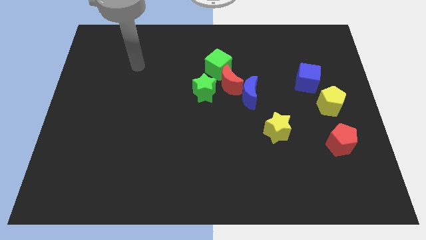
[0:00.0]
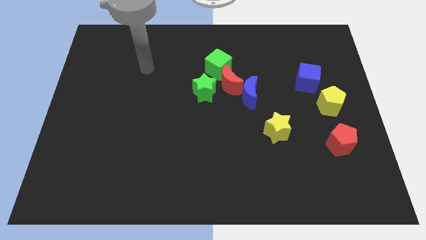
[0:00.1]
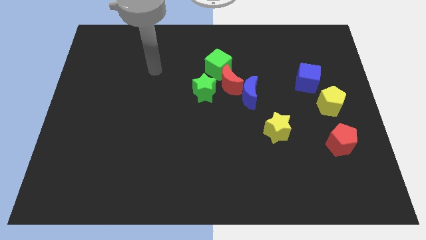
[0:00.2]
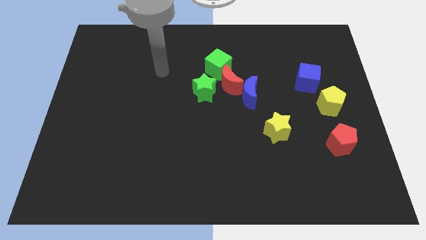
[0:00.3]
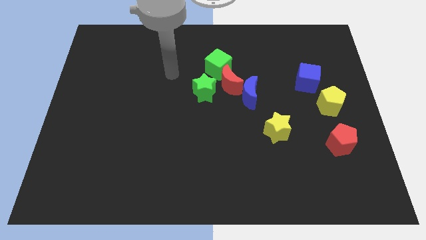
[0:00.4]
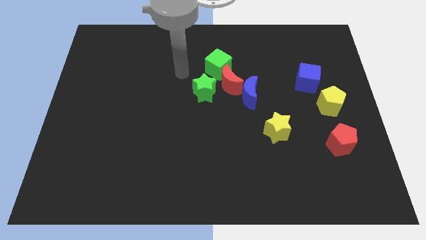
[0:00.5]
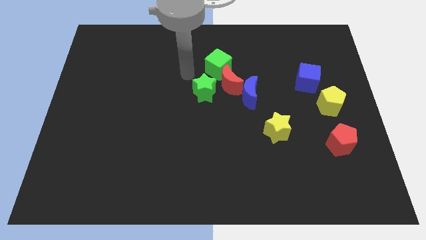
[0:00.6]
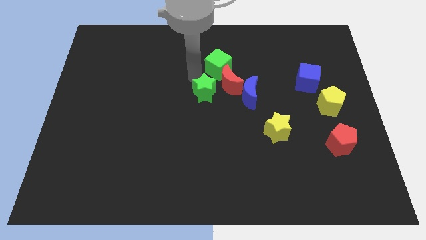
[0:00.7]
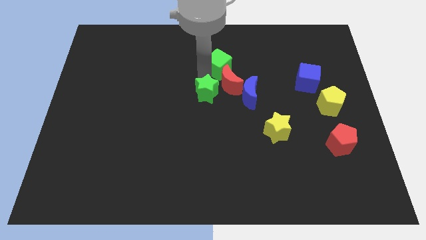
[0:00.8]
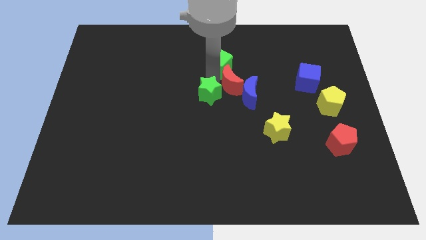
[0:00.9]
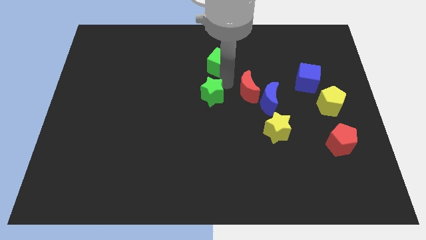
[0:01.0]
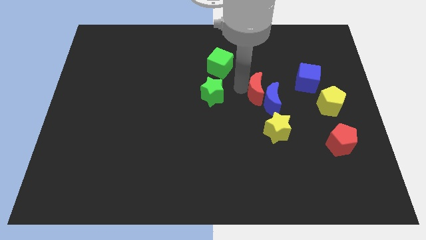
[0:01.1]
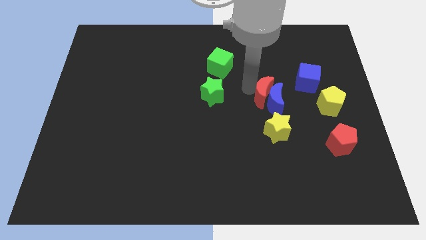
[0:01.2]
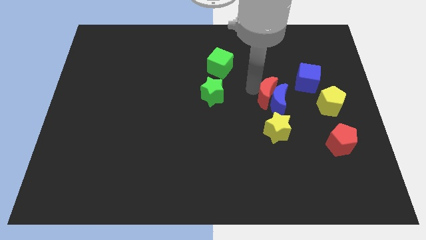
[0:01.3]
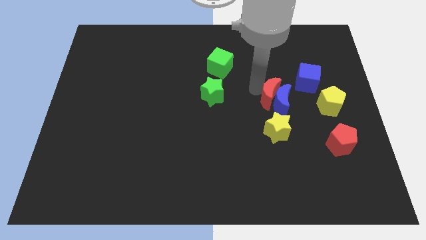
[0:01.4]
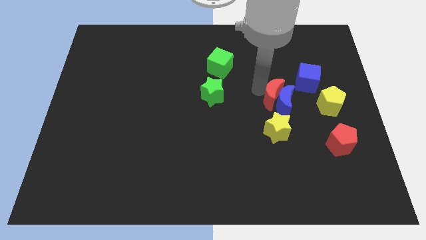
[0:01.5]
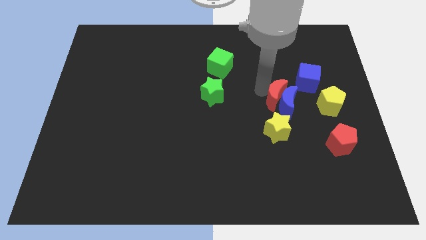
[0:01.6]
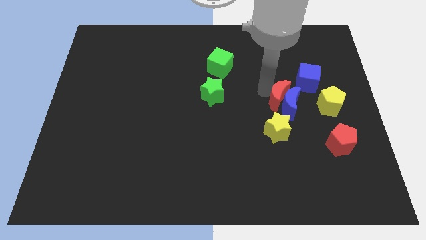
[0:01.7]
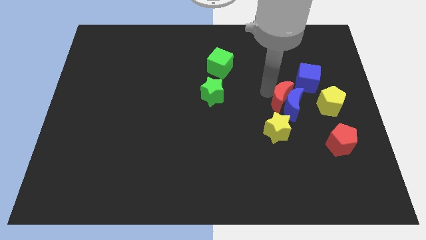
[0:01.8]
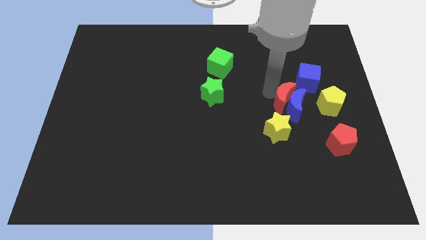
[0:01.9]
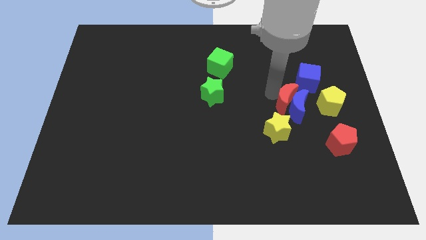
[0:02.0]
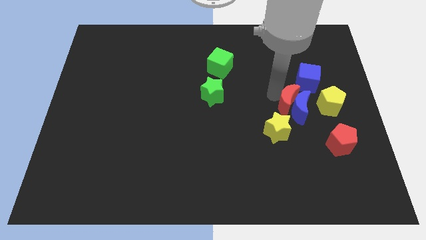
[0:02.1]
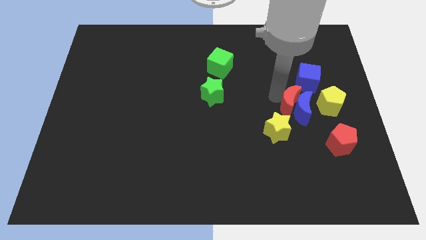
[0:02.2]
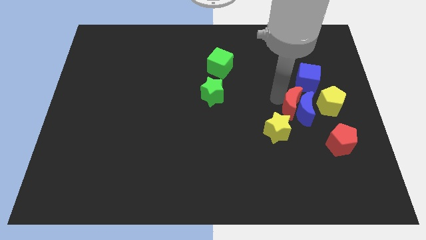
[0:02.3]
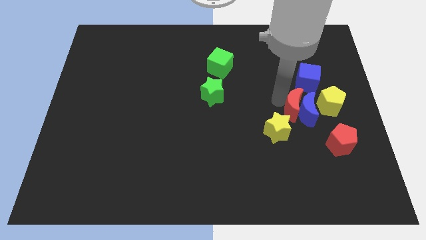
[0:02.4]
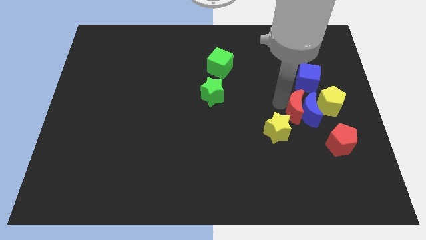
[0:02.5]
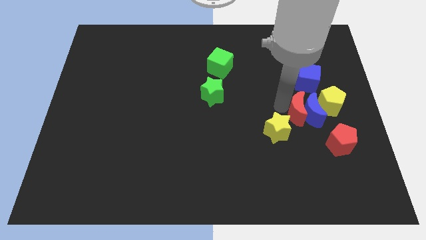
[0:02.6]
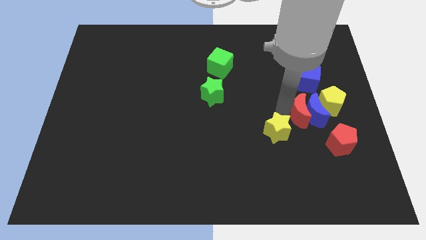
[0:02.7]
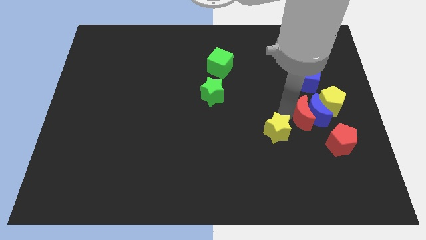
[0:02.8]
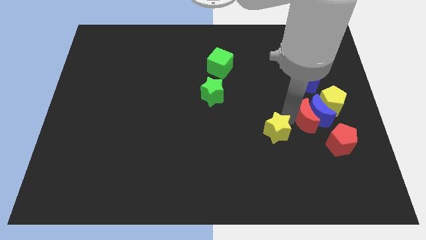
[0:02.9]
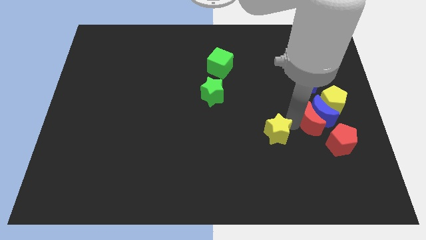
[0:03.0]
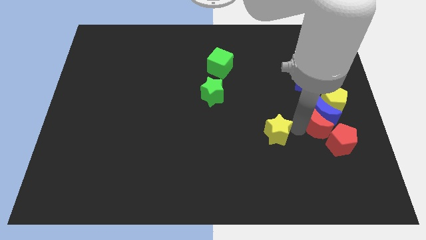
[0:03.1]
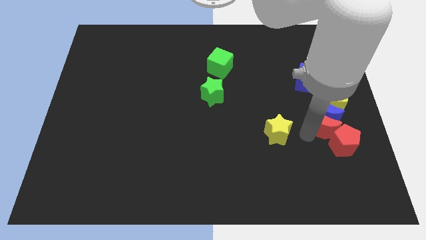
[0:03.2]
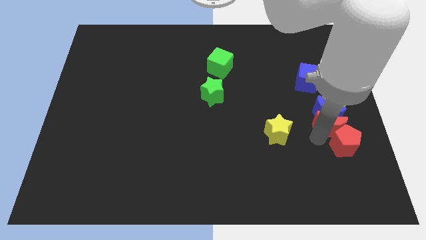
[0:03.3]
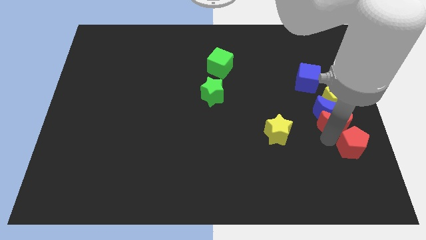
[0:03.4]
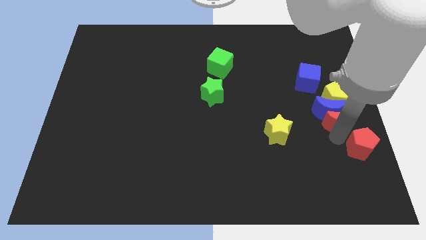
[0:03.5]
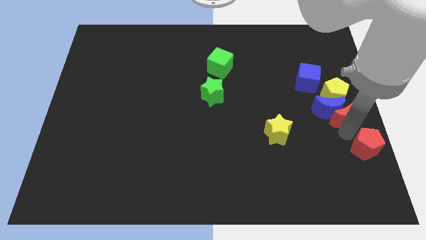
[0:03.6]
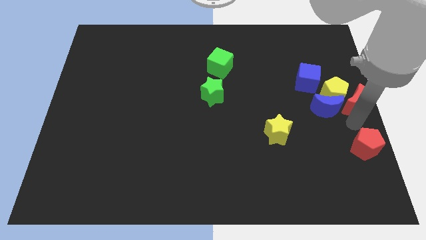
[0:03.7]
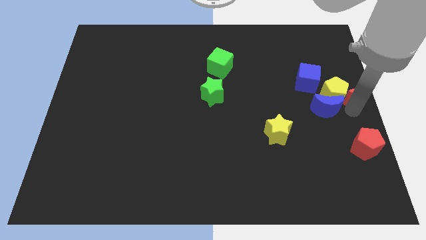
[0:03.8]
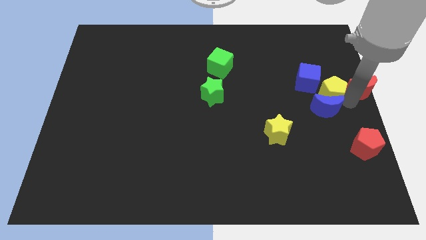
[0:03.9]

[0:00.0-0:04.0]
pull the blue moon apart from the red moon

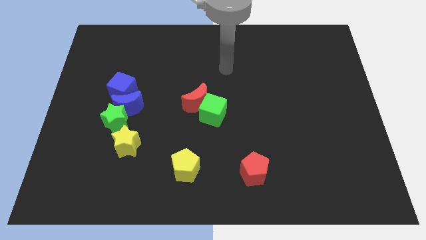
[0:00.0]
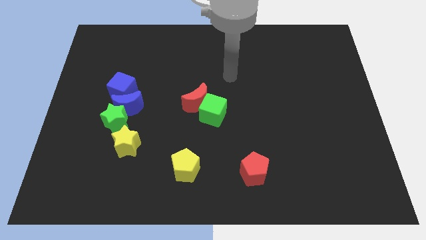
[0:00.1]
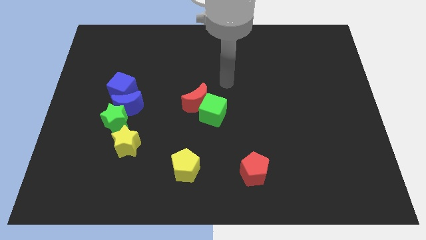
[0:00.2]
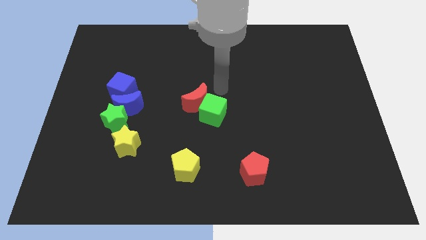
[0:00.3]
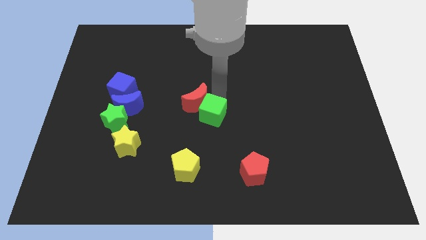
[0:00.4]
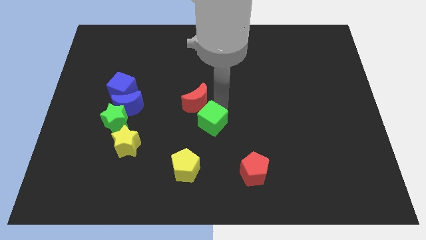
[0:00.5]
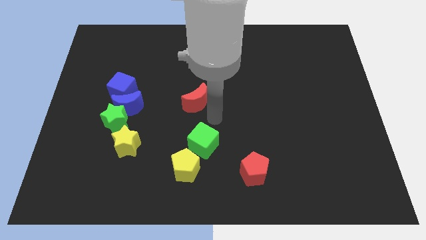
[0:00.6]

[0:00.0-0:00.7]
pull the red moon apart from the green cube

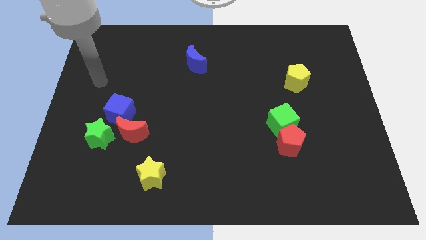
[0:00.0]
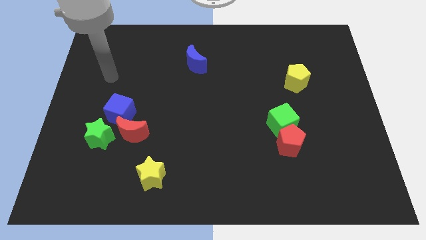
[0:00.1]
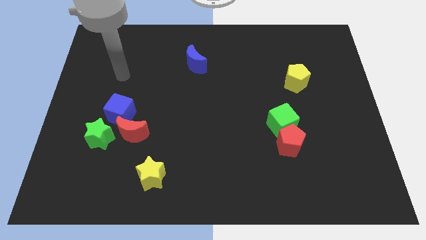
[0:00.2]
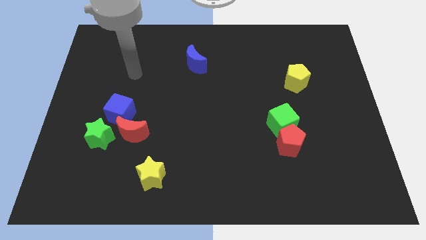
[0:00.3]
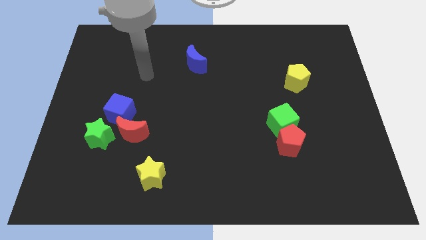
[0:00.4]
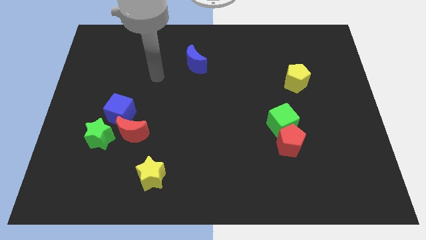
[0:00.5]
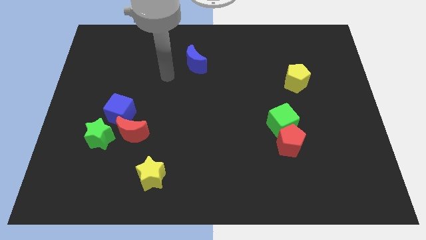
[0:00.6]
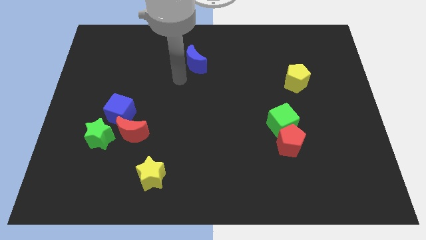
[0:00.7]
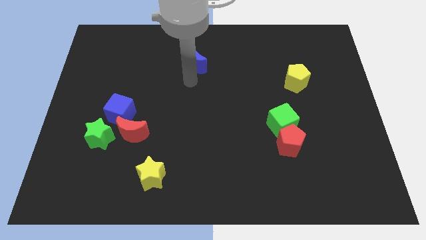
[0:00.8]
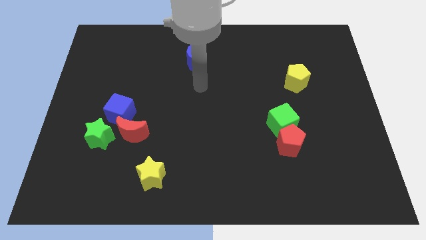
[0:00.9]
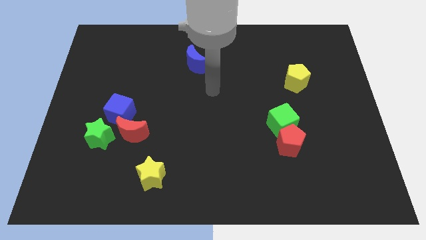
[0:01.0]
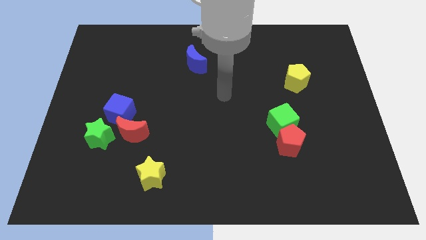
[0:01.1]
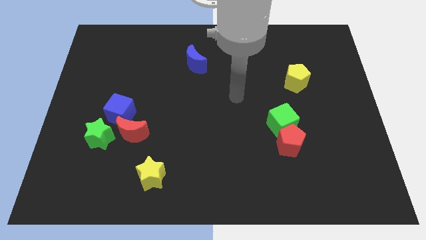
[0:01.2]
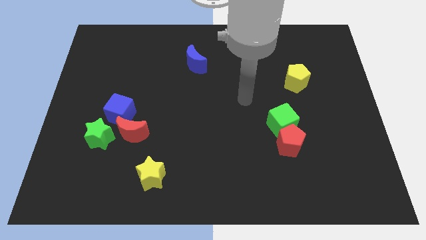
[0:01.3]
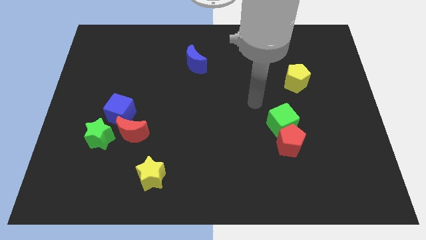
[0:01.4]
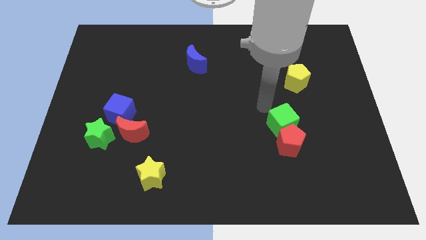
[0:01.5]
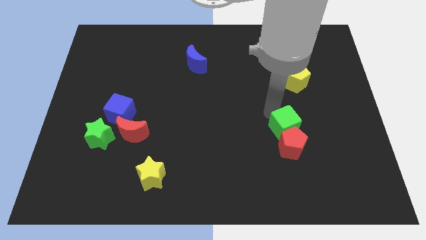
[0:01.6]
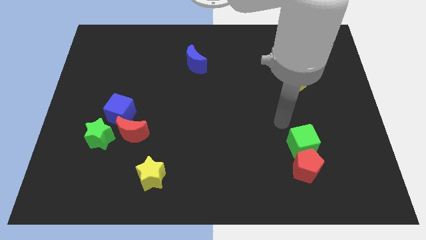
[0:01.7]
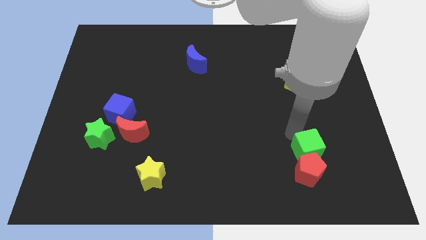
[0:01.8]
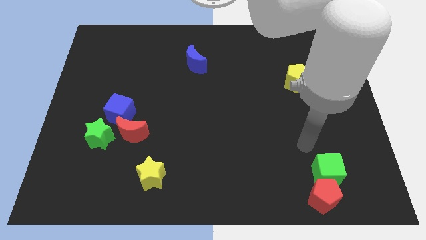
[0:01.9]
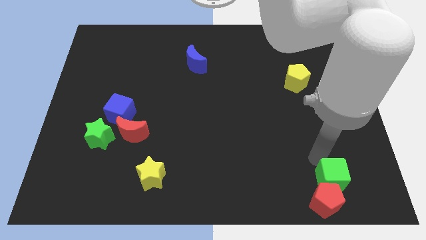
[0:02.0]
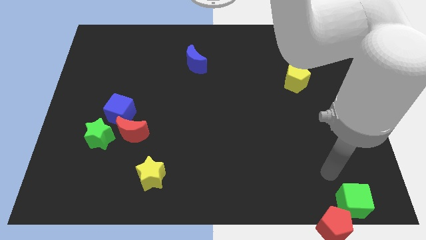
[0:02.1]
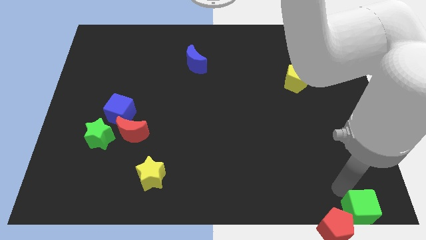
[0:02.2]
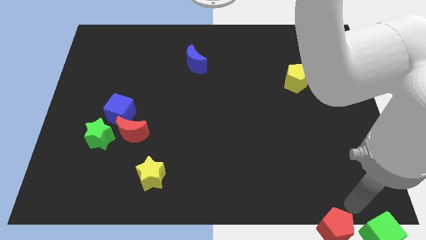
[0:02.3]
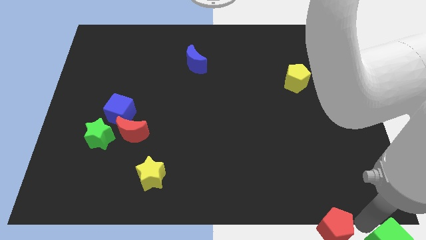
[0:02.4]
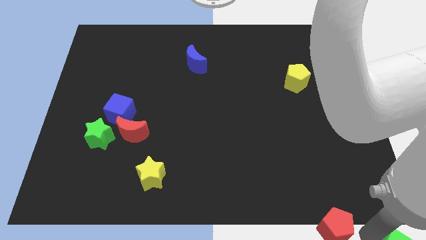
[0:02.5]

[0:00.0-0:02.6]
pull the red pentagon apart from the green cube

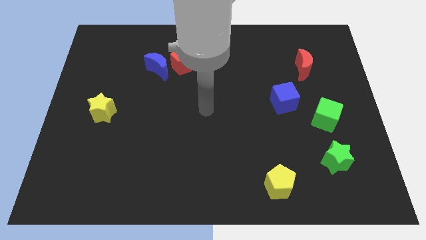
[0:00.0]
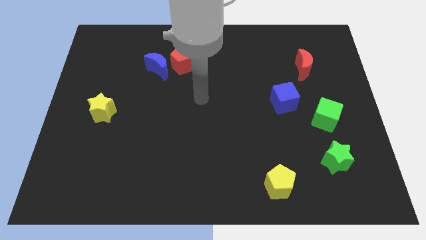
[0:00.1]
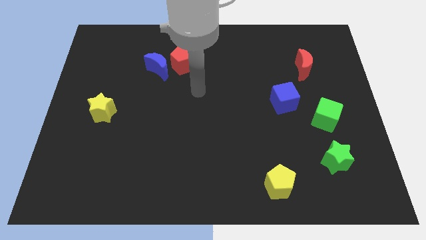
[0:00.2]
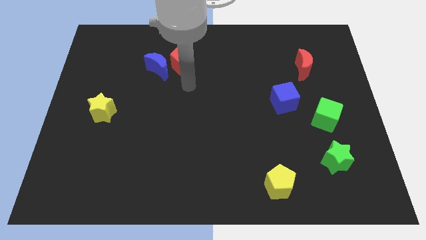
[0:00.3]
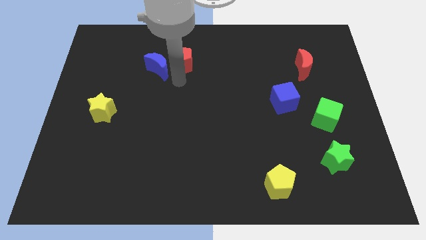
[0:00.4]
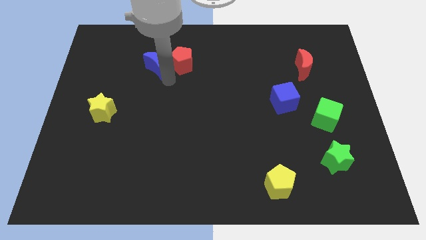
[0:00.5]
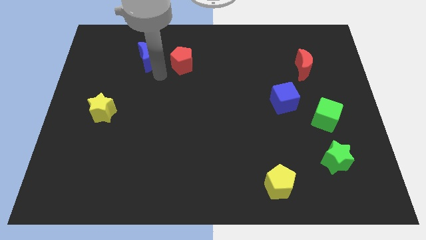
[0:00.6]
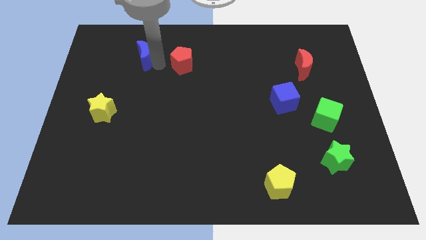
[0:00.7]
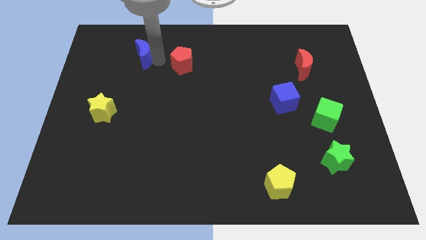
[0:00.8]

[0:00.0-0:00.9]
move the red pentagon away from the blue moon

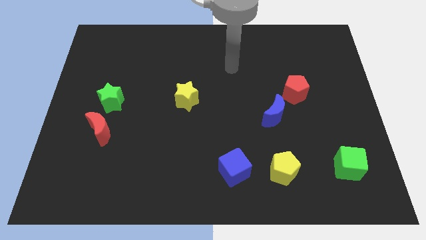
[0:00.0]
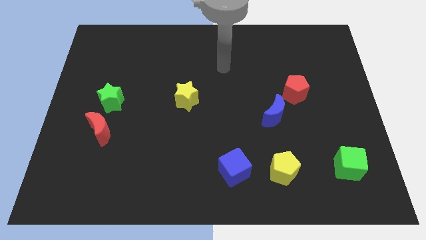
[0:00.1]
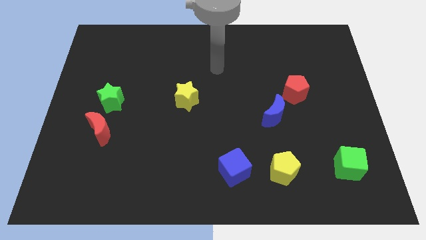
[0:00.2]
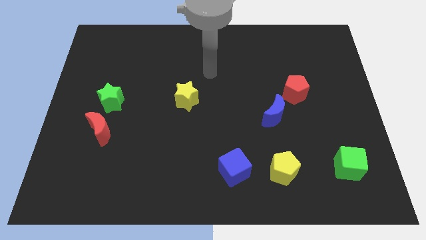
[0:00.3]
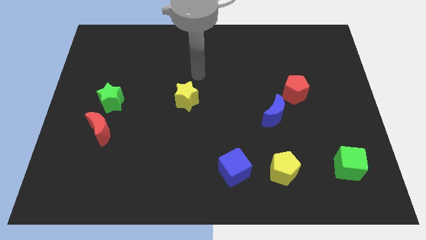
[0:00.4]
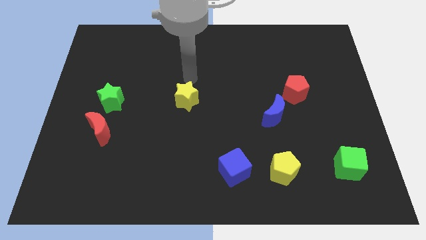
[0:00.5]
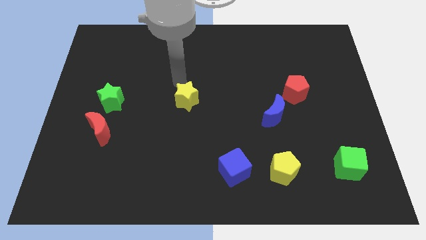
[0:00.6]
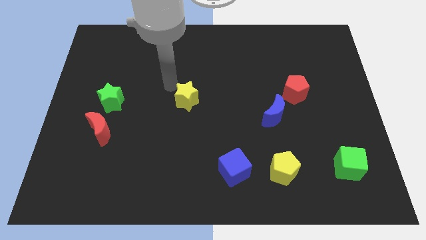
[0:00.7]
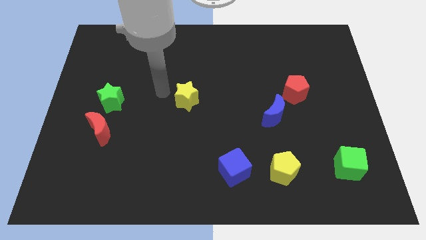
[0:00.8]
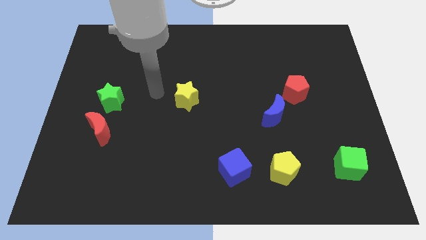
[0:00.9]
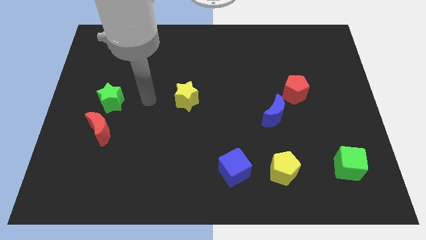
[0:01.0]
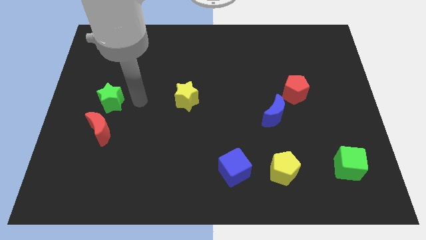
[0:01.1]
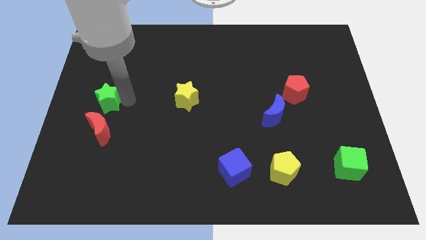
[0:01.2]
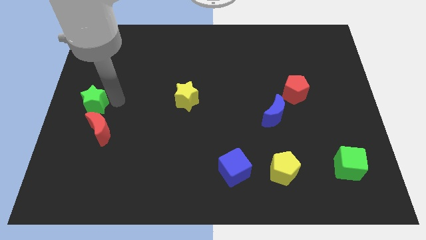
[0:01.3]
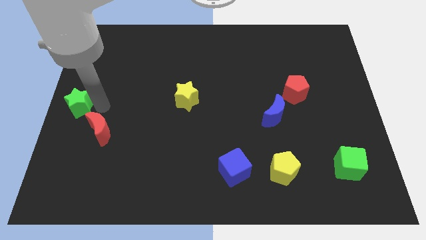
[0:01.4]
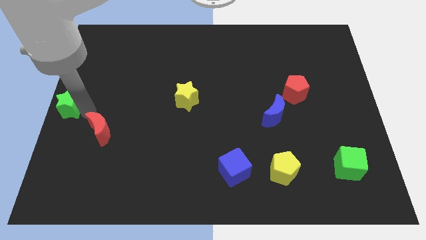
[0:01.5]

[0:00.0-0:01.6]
separate the red moon from the green star
